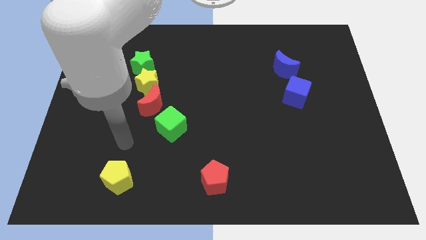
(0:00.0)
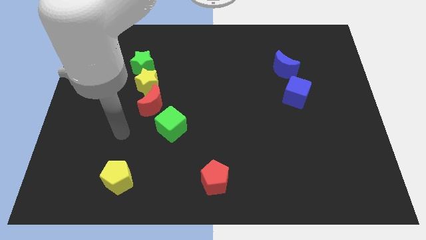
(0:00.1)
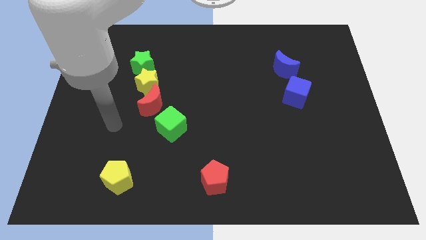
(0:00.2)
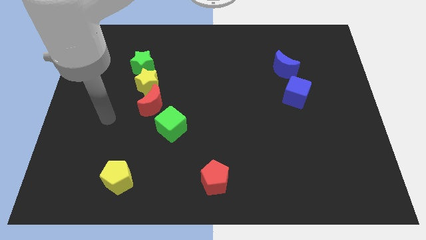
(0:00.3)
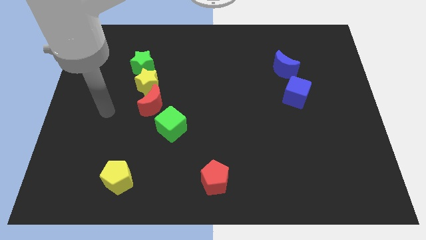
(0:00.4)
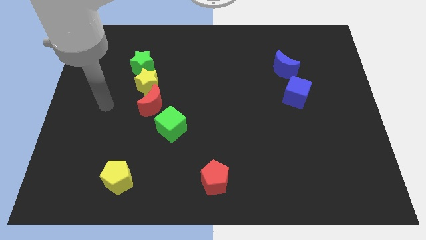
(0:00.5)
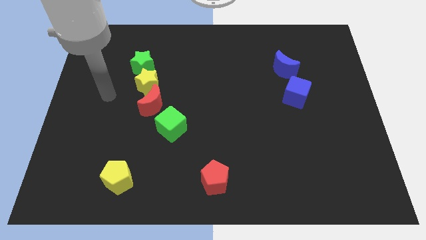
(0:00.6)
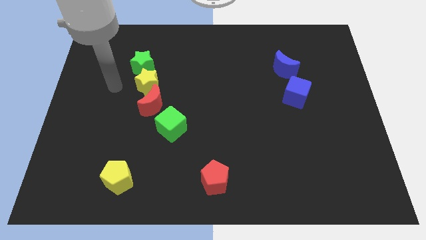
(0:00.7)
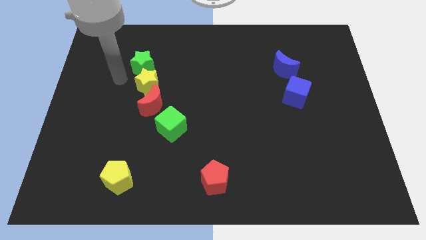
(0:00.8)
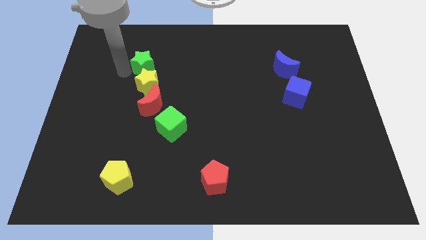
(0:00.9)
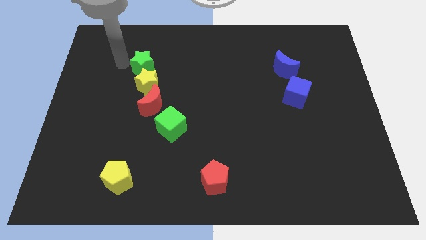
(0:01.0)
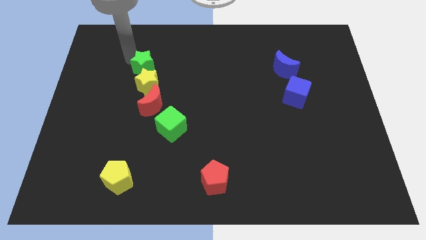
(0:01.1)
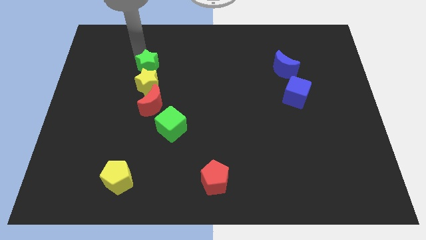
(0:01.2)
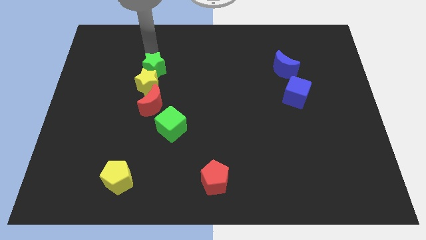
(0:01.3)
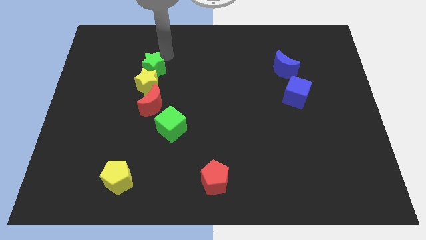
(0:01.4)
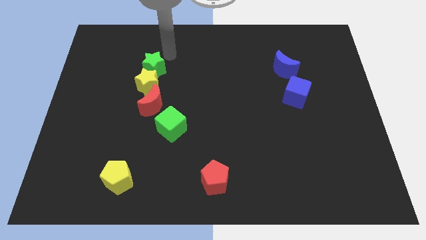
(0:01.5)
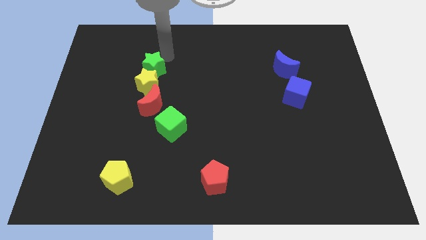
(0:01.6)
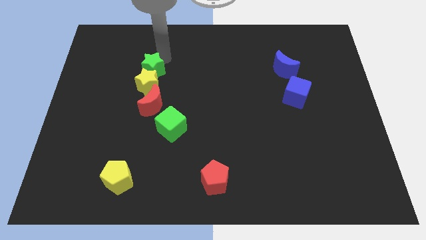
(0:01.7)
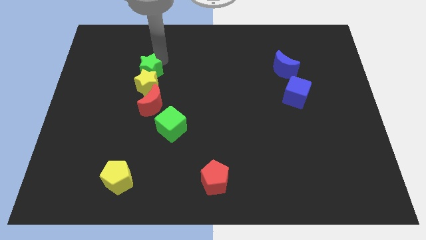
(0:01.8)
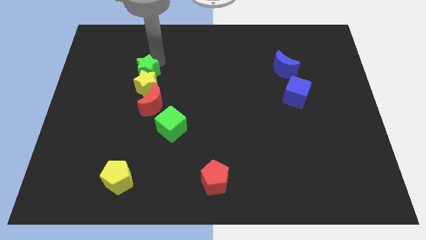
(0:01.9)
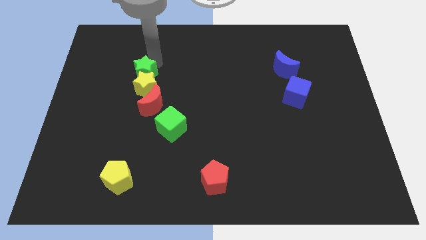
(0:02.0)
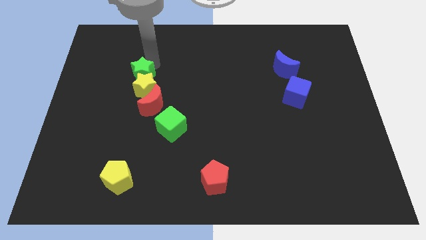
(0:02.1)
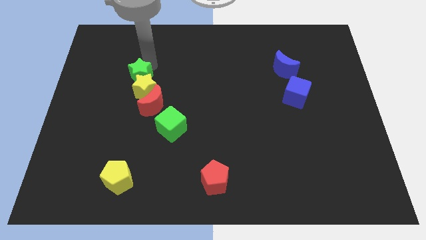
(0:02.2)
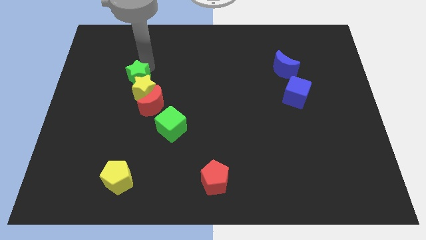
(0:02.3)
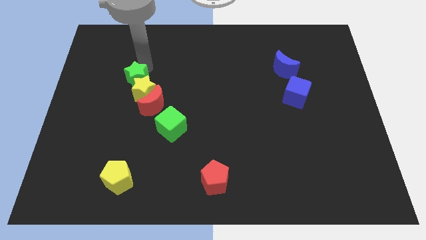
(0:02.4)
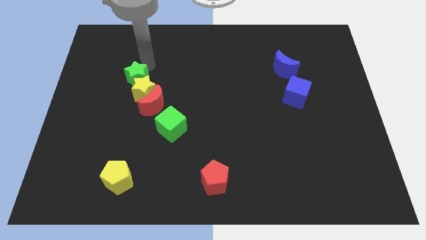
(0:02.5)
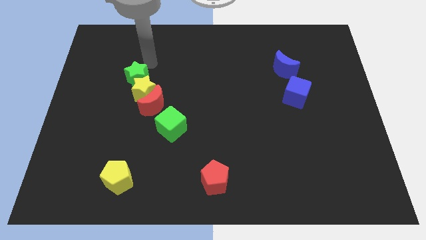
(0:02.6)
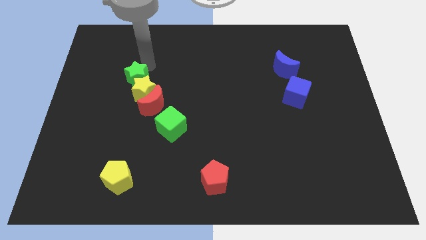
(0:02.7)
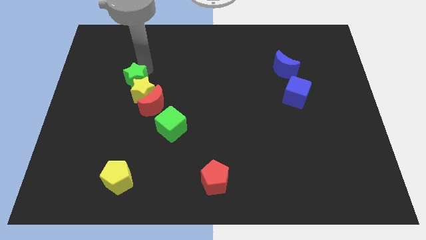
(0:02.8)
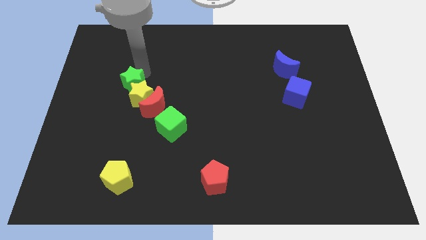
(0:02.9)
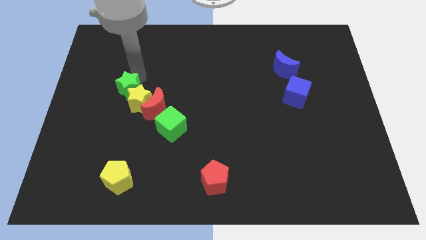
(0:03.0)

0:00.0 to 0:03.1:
slightly slide the green star downwards

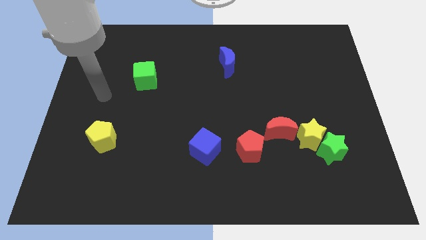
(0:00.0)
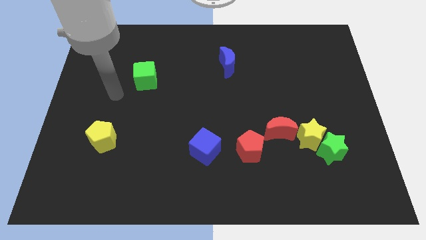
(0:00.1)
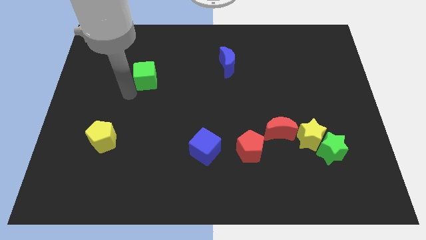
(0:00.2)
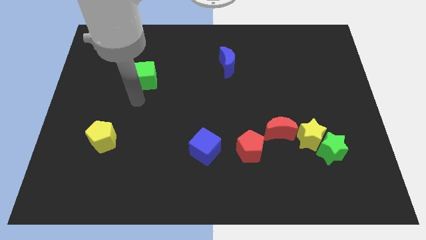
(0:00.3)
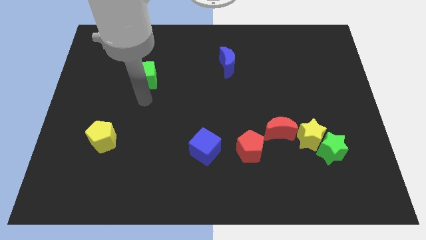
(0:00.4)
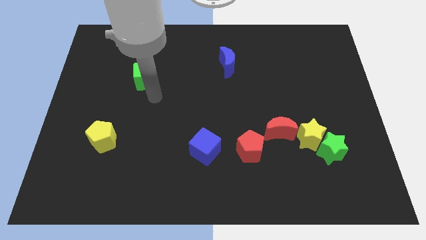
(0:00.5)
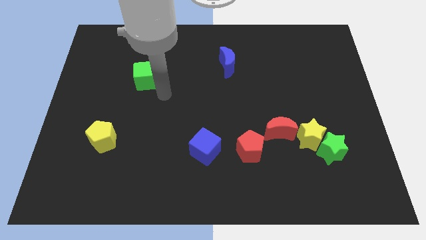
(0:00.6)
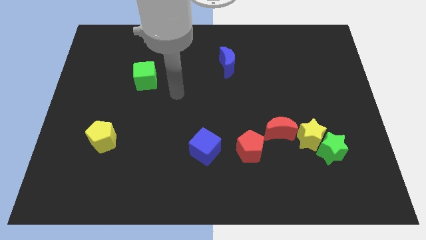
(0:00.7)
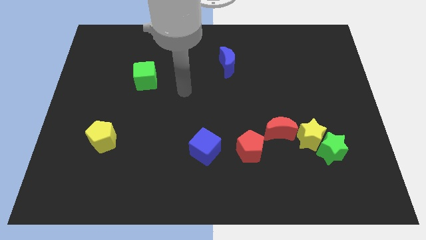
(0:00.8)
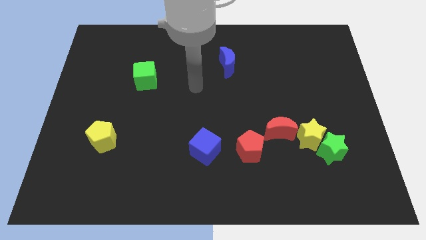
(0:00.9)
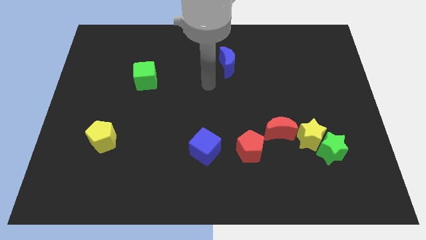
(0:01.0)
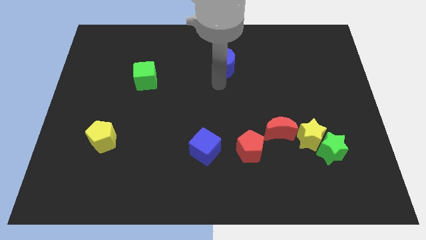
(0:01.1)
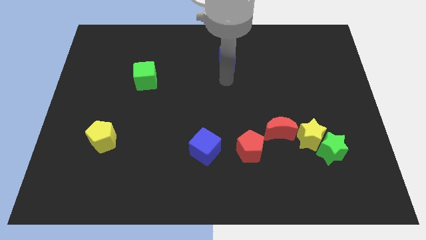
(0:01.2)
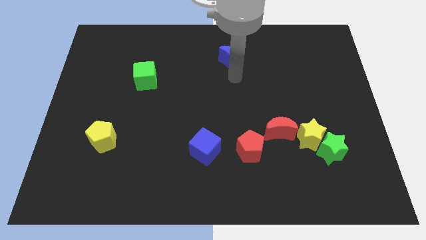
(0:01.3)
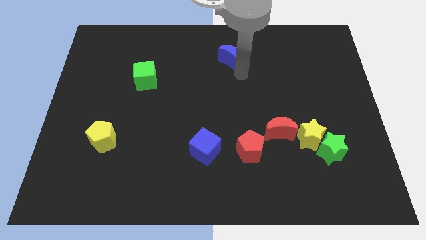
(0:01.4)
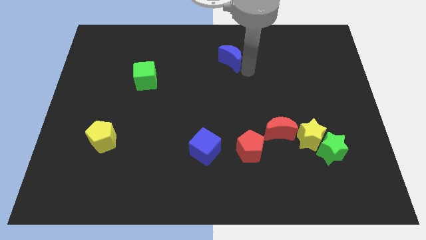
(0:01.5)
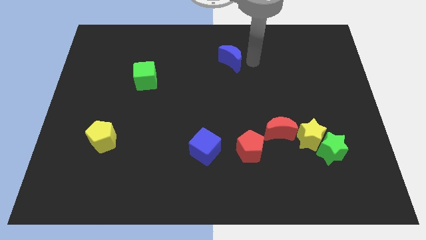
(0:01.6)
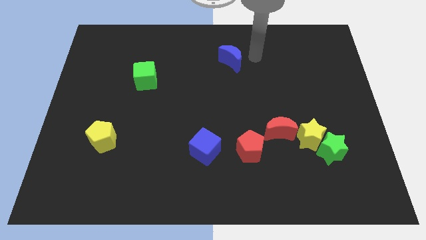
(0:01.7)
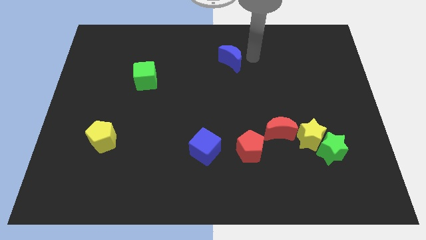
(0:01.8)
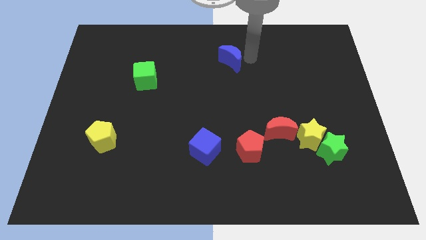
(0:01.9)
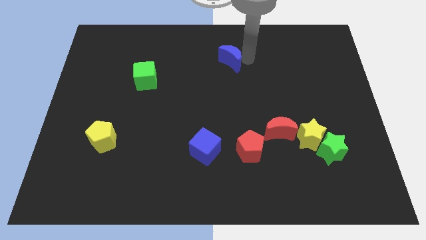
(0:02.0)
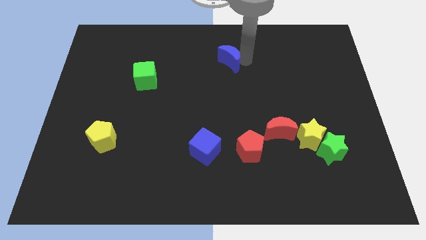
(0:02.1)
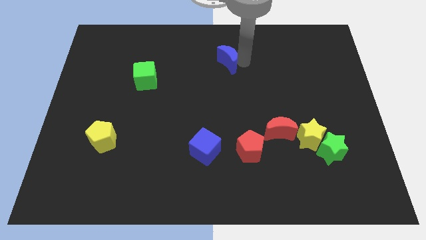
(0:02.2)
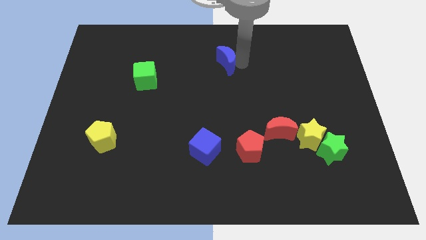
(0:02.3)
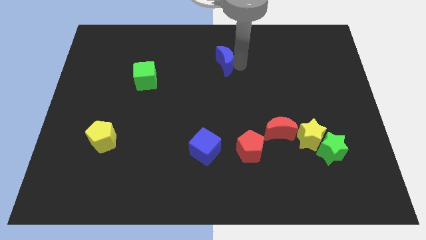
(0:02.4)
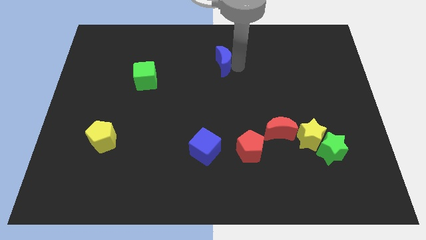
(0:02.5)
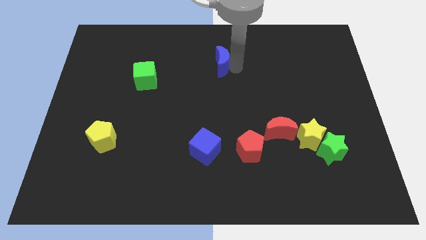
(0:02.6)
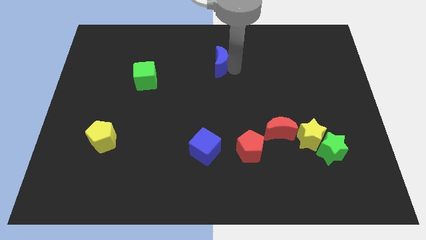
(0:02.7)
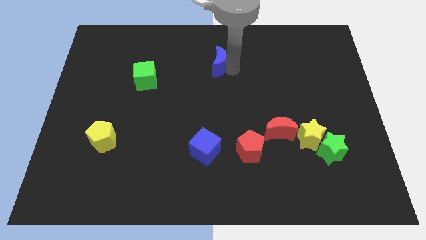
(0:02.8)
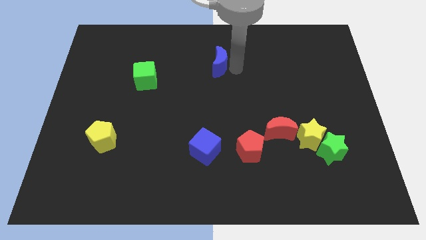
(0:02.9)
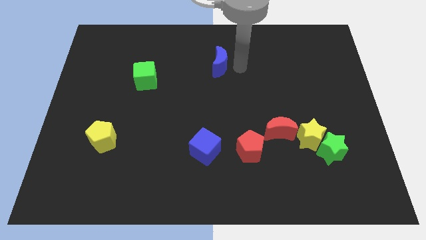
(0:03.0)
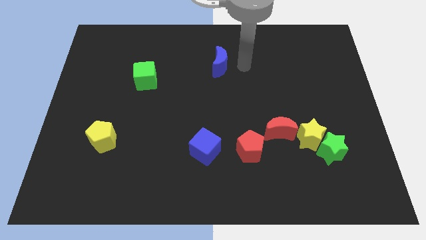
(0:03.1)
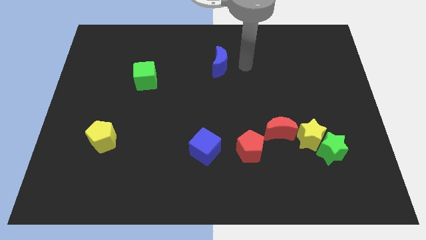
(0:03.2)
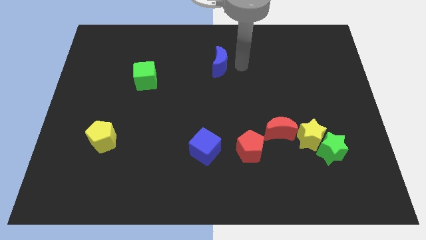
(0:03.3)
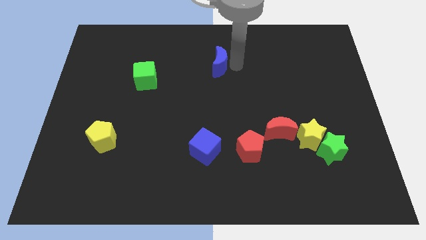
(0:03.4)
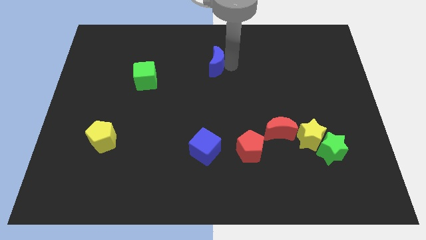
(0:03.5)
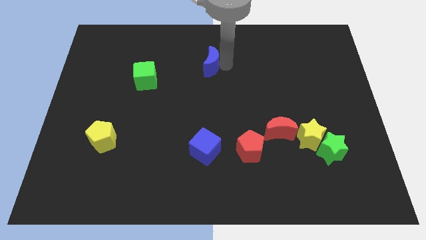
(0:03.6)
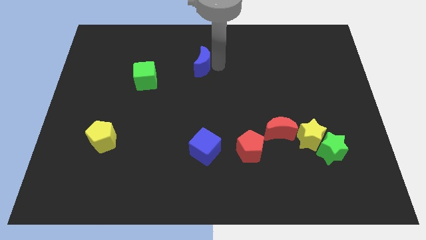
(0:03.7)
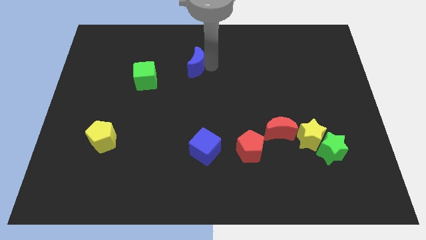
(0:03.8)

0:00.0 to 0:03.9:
slightly move the blue moon to the left

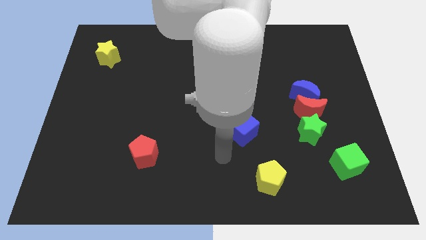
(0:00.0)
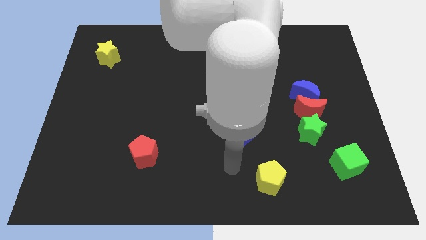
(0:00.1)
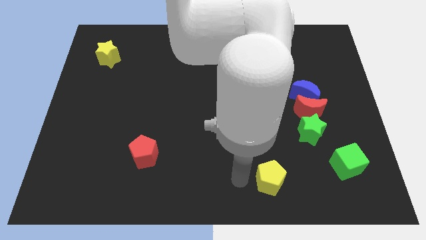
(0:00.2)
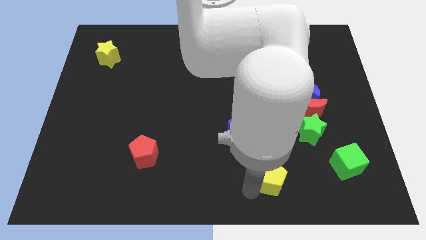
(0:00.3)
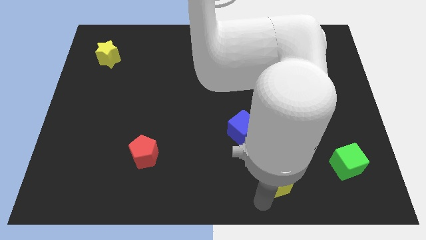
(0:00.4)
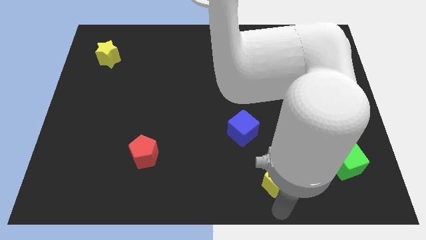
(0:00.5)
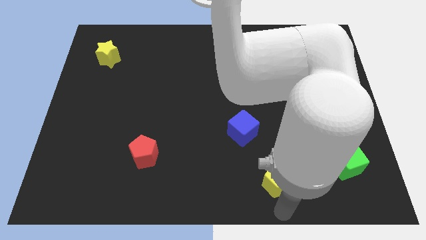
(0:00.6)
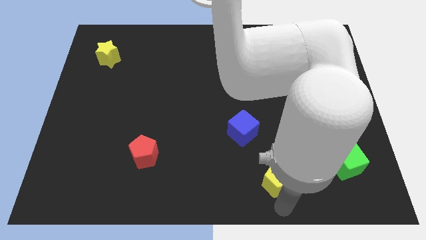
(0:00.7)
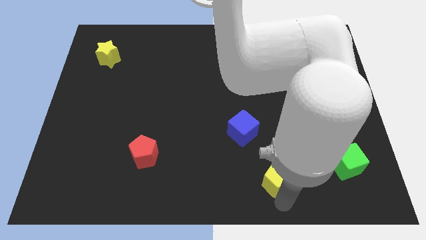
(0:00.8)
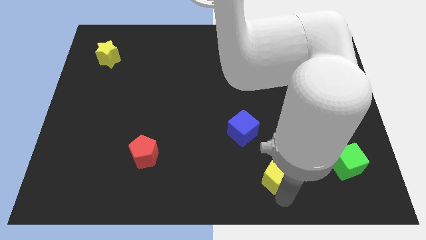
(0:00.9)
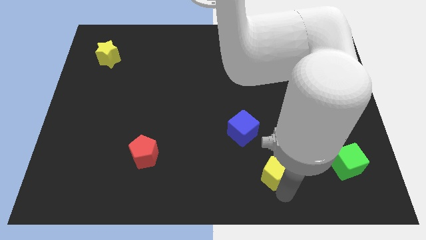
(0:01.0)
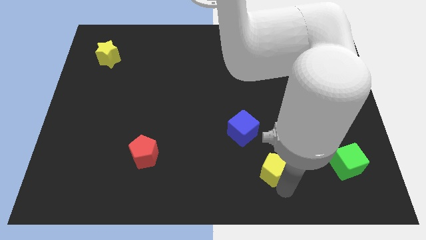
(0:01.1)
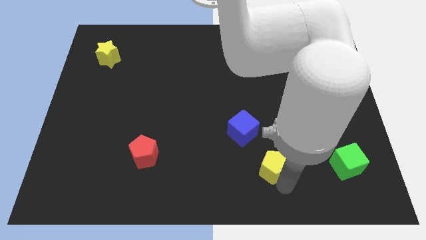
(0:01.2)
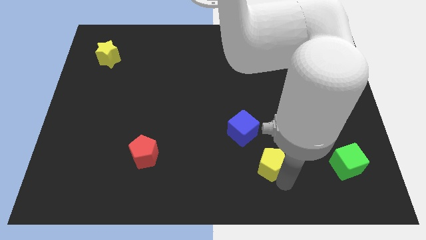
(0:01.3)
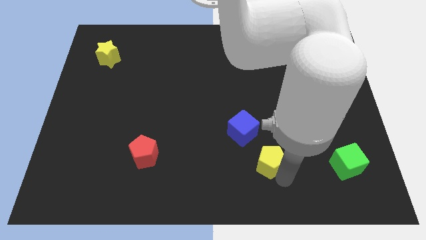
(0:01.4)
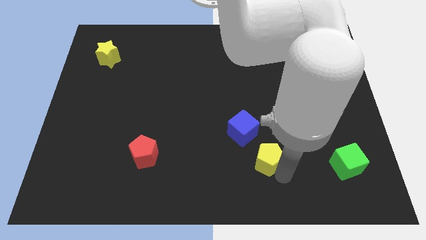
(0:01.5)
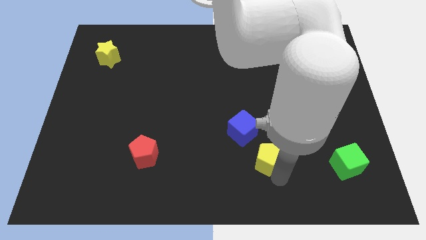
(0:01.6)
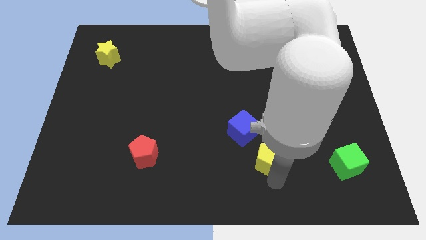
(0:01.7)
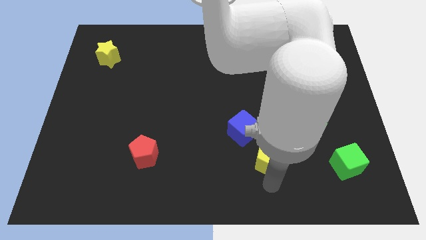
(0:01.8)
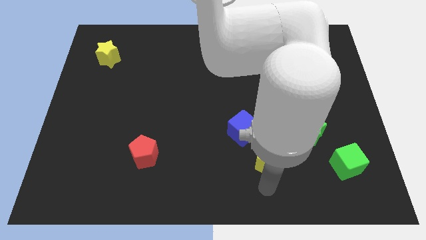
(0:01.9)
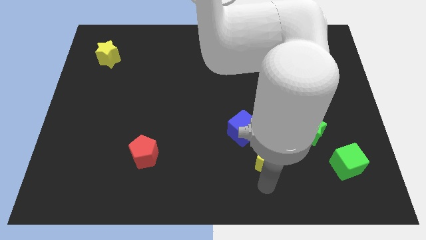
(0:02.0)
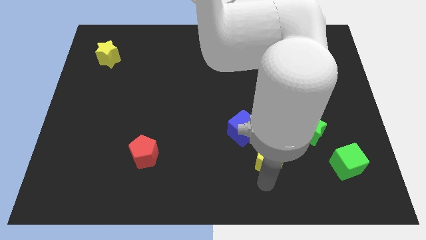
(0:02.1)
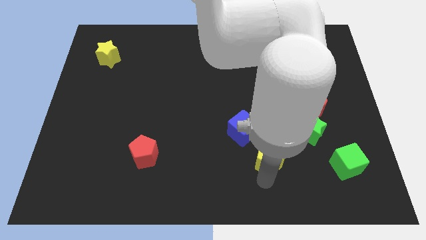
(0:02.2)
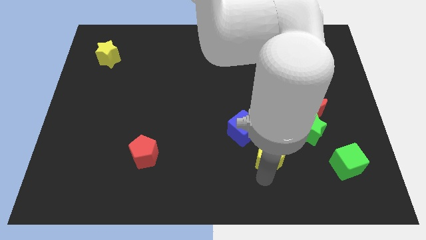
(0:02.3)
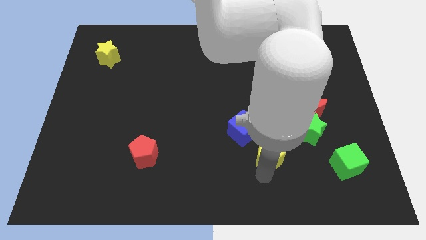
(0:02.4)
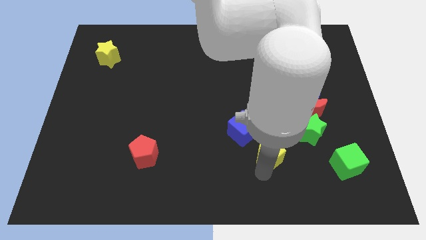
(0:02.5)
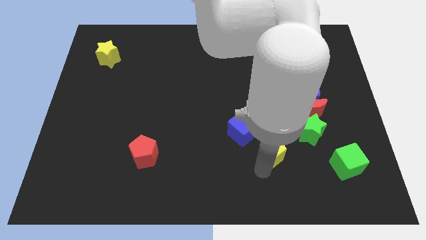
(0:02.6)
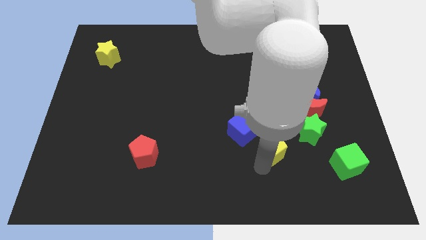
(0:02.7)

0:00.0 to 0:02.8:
move the yellow pentagon up a little bit
